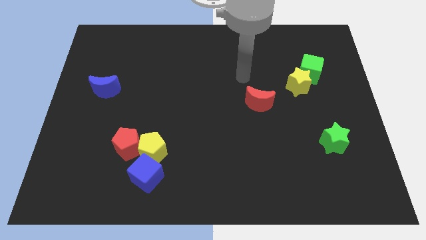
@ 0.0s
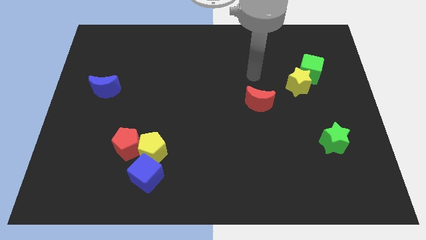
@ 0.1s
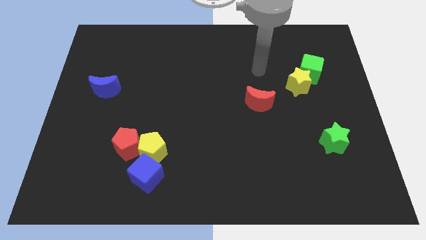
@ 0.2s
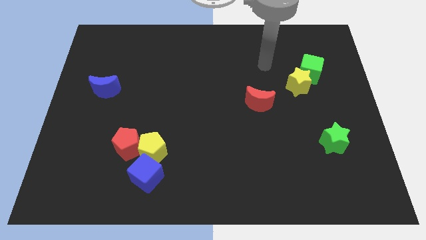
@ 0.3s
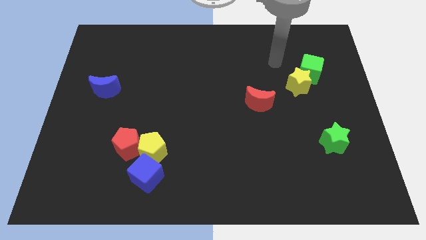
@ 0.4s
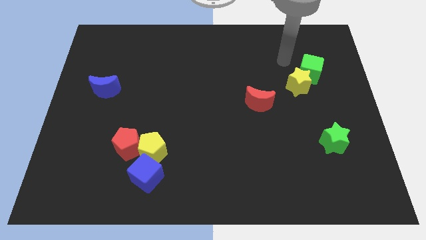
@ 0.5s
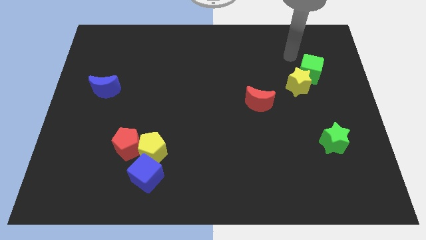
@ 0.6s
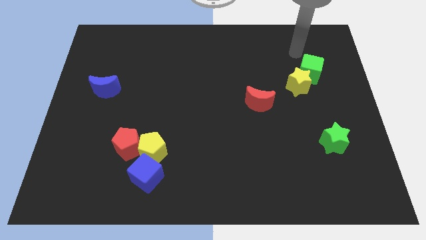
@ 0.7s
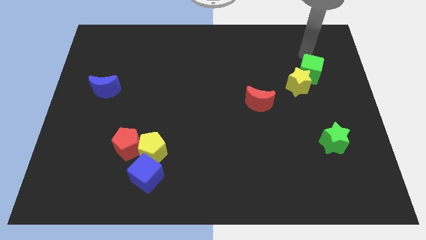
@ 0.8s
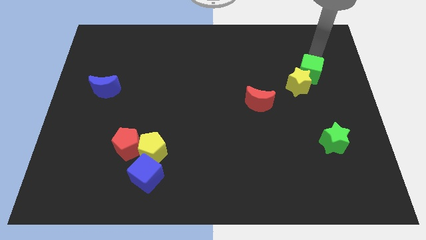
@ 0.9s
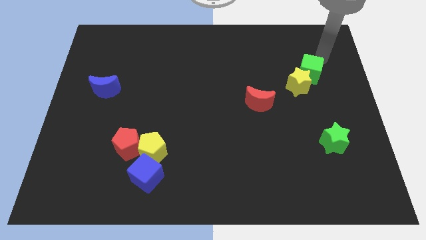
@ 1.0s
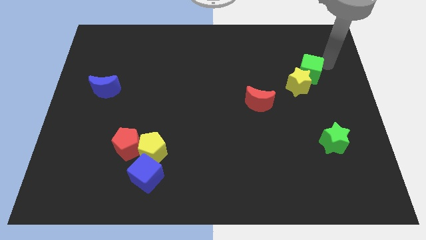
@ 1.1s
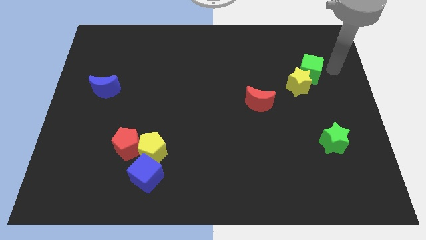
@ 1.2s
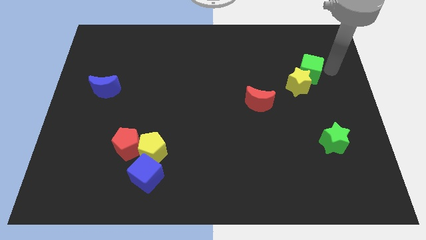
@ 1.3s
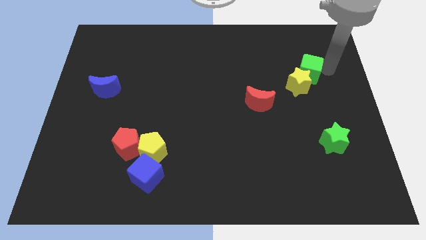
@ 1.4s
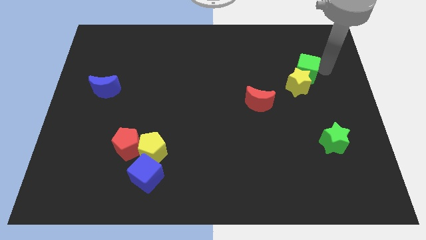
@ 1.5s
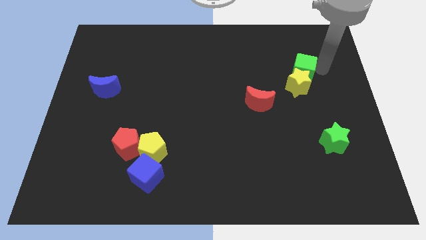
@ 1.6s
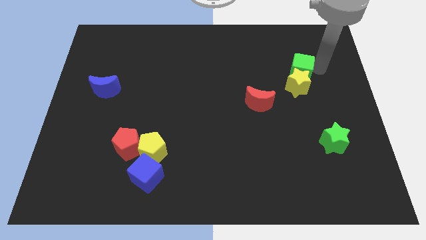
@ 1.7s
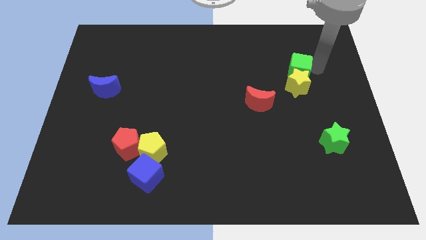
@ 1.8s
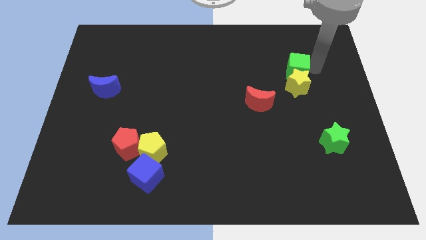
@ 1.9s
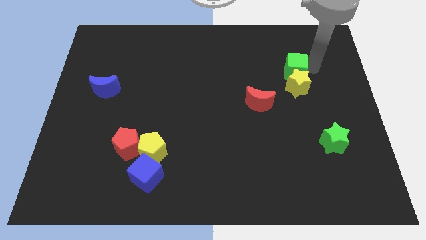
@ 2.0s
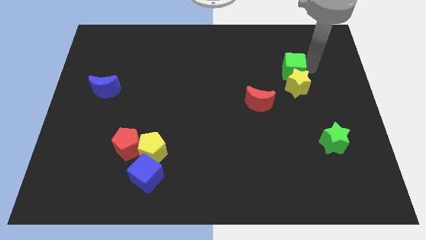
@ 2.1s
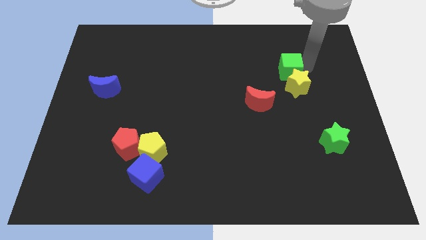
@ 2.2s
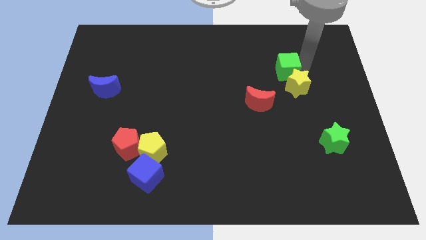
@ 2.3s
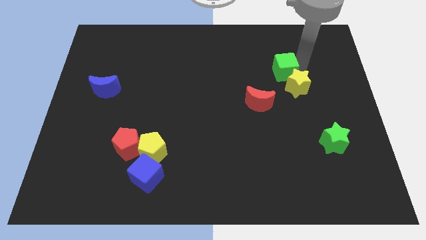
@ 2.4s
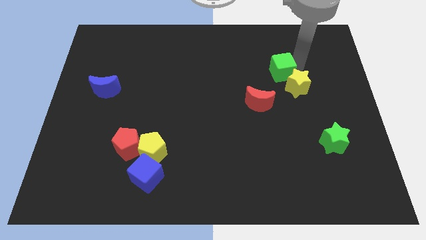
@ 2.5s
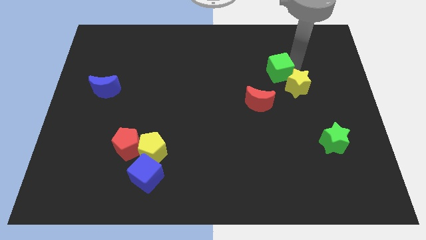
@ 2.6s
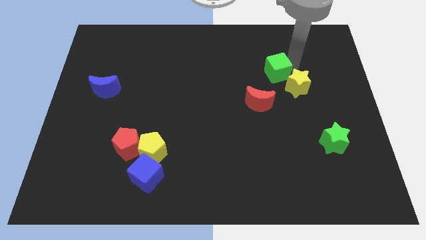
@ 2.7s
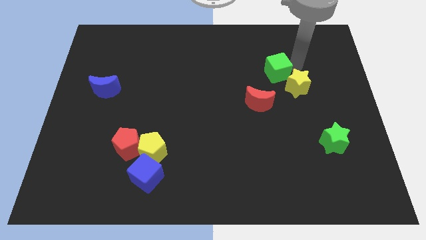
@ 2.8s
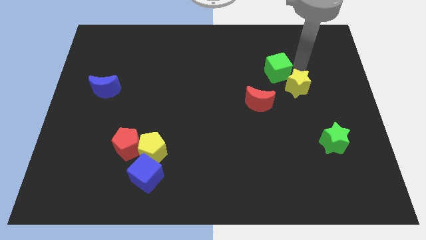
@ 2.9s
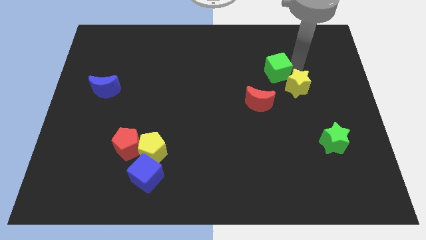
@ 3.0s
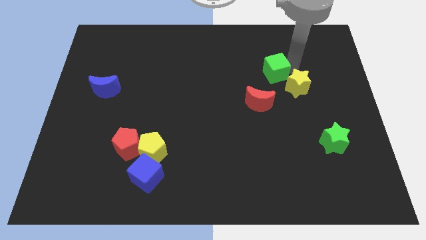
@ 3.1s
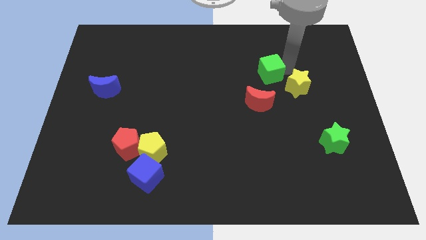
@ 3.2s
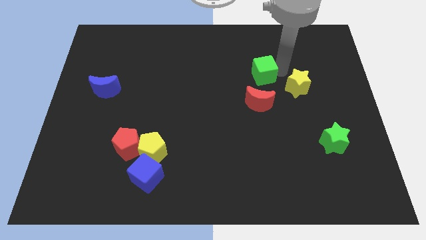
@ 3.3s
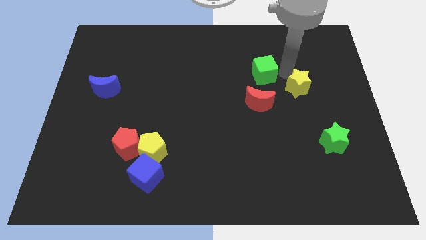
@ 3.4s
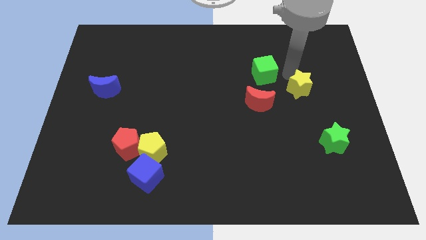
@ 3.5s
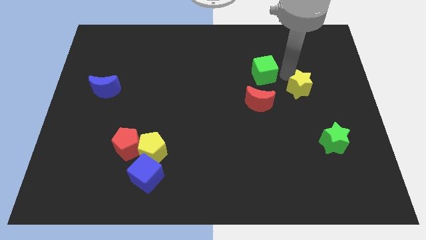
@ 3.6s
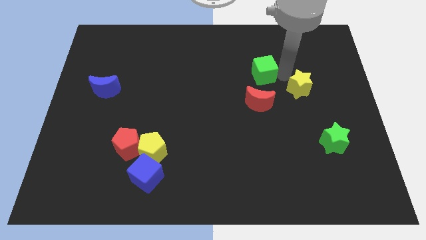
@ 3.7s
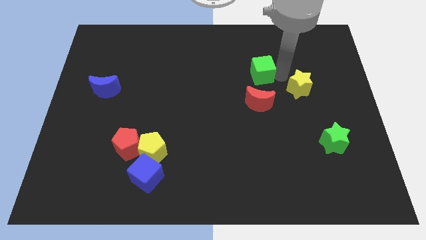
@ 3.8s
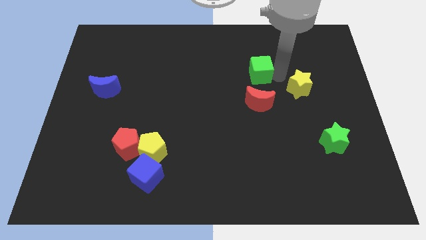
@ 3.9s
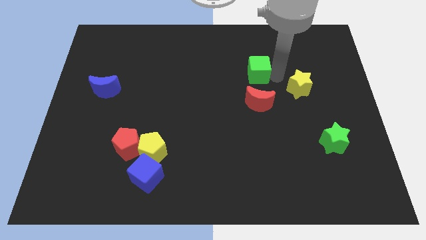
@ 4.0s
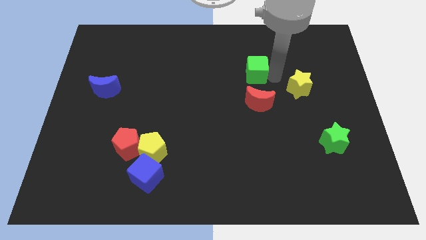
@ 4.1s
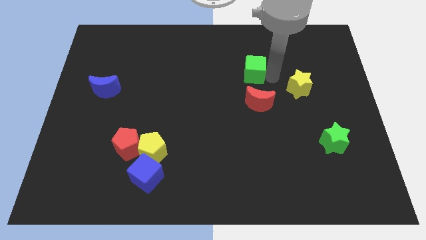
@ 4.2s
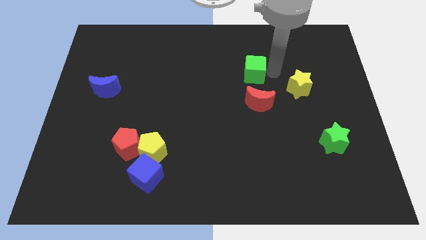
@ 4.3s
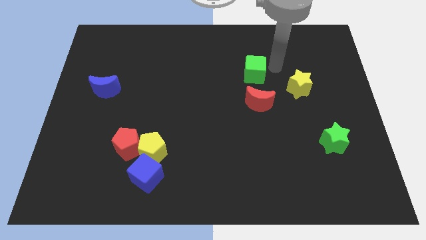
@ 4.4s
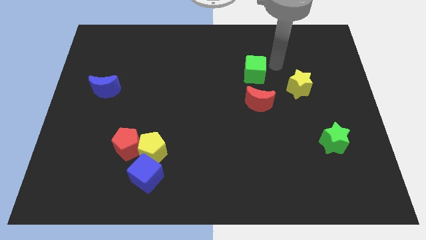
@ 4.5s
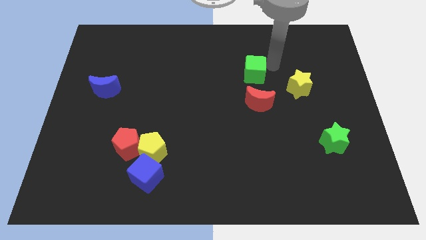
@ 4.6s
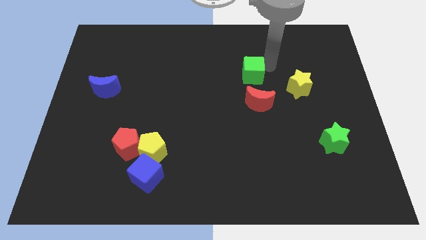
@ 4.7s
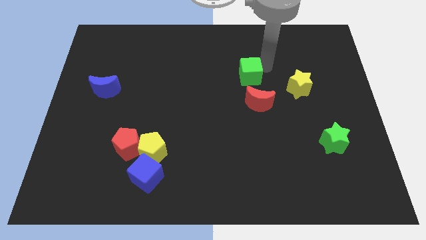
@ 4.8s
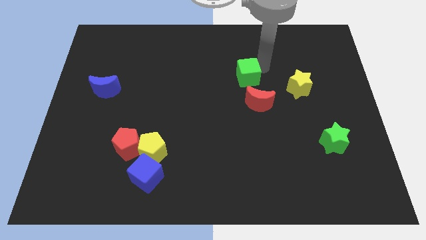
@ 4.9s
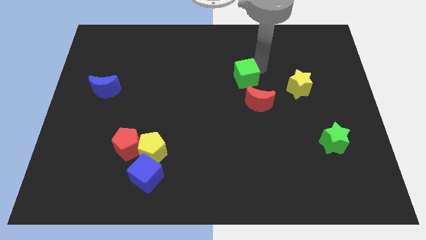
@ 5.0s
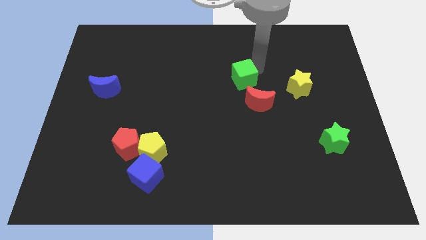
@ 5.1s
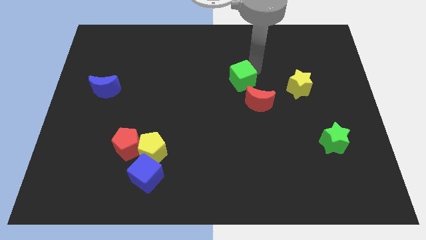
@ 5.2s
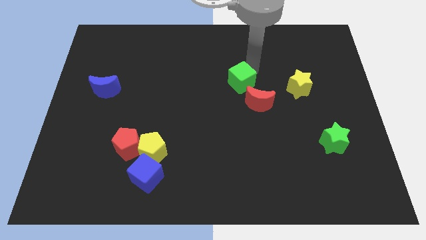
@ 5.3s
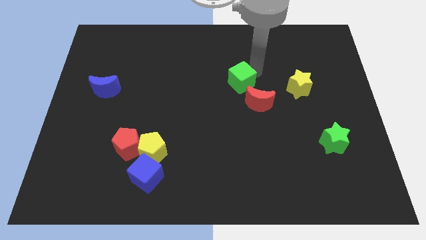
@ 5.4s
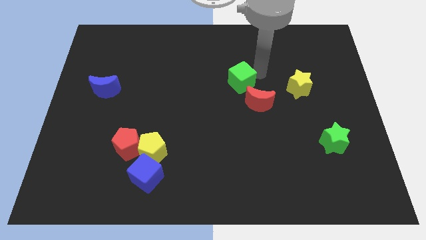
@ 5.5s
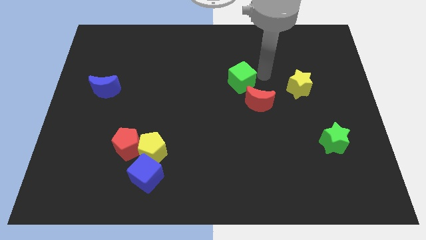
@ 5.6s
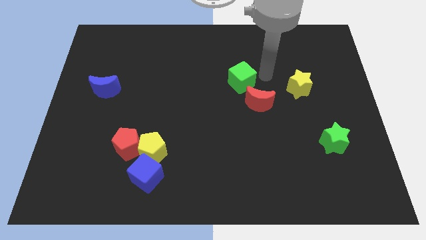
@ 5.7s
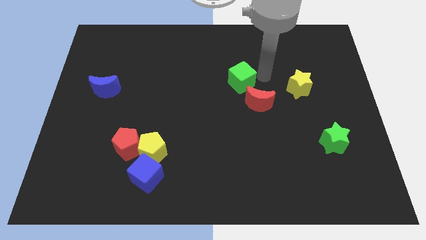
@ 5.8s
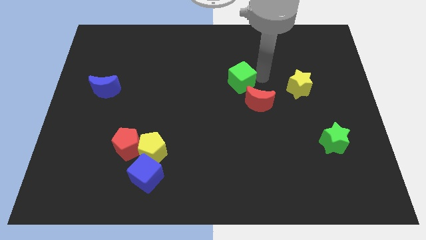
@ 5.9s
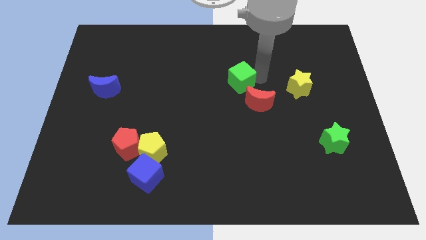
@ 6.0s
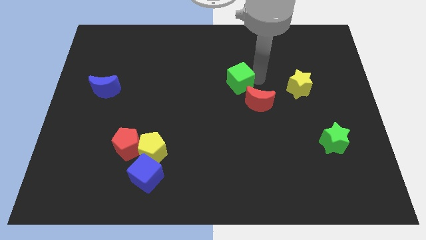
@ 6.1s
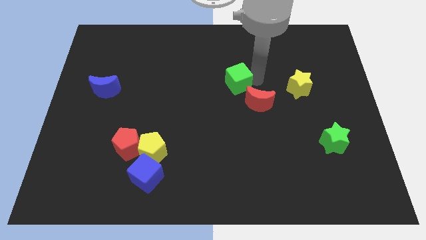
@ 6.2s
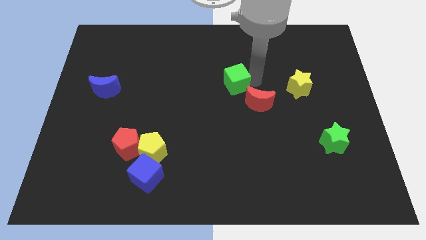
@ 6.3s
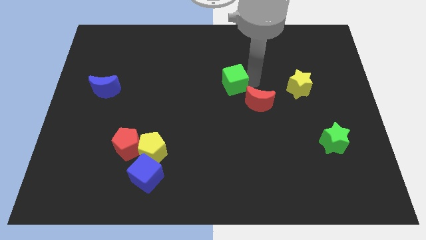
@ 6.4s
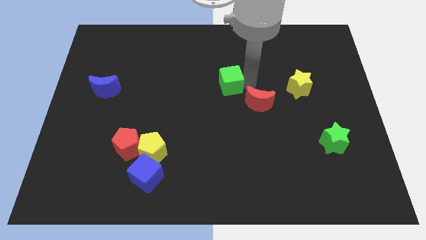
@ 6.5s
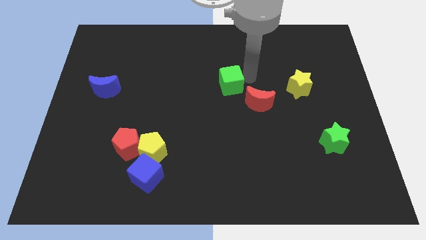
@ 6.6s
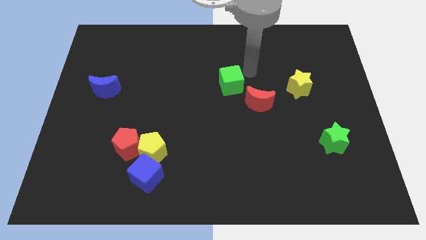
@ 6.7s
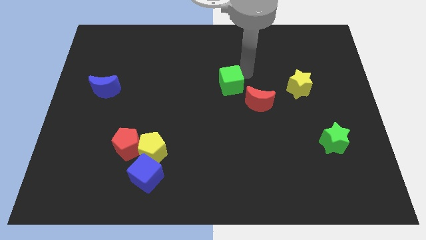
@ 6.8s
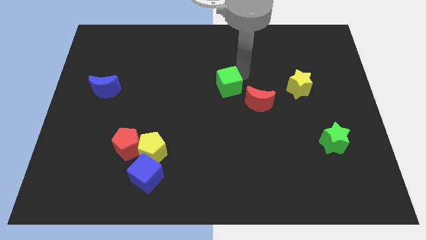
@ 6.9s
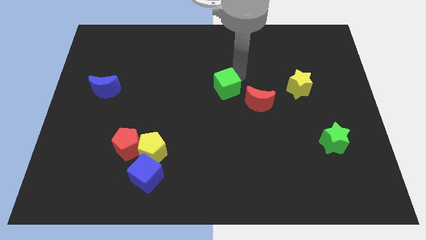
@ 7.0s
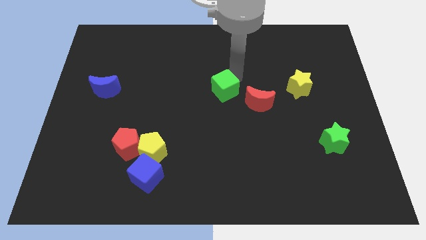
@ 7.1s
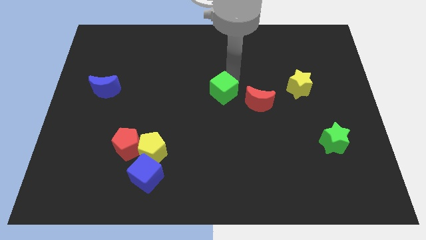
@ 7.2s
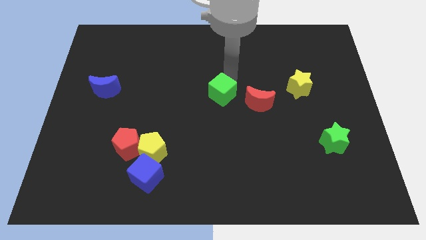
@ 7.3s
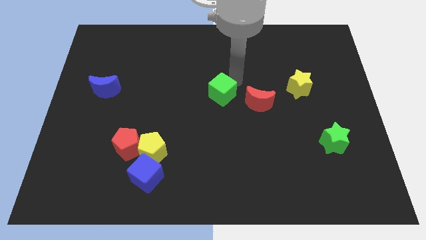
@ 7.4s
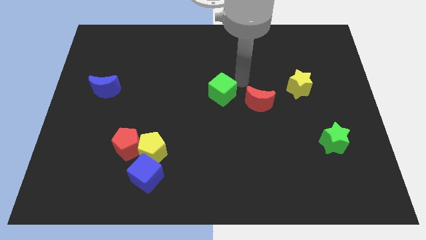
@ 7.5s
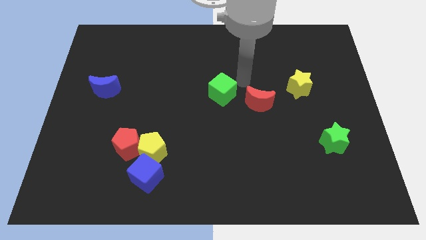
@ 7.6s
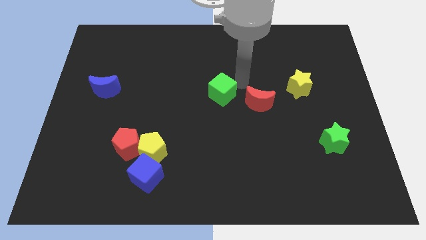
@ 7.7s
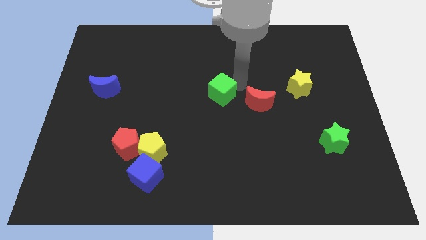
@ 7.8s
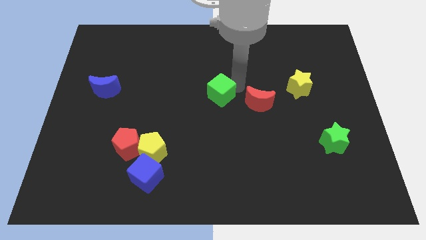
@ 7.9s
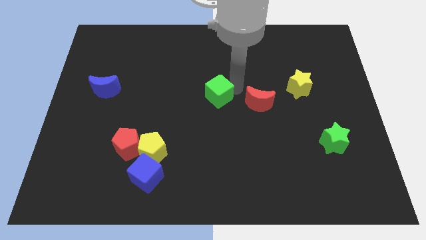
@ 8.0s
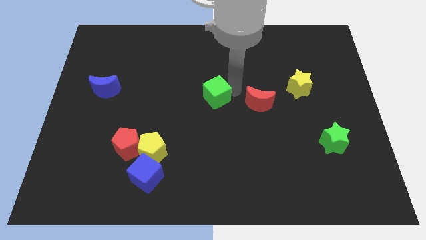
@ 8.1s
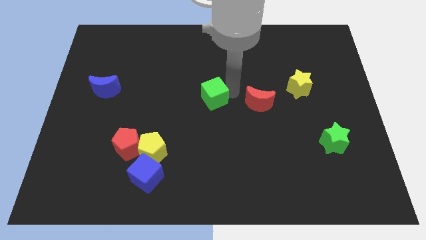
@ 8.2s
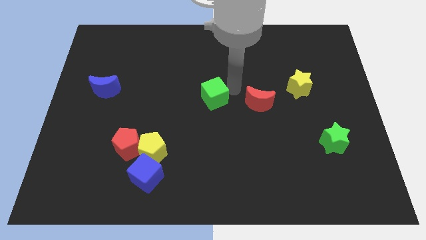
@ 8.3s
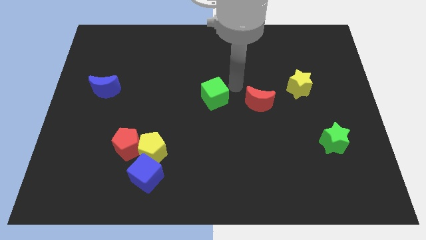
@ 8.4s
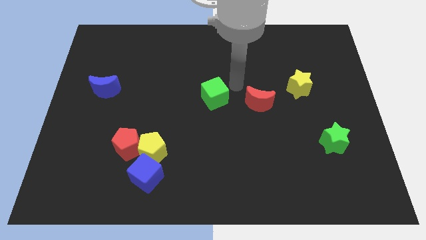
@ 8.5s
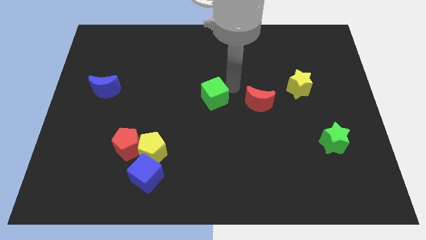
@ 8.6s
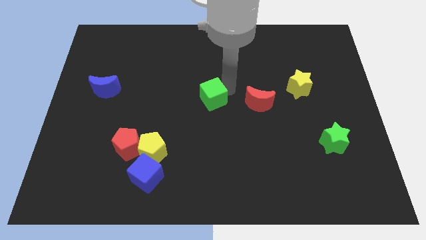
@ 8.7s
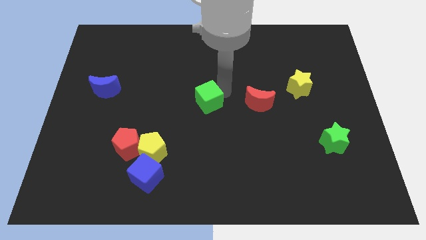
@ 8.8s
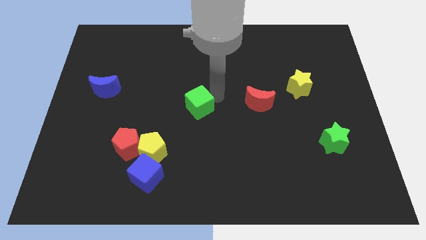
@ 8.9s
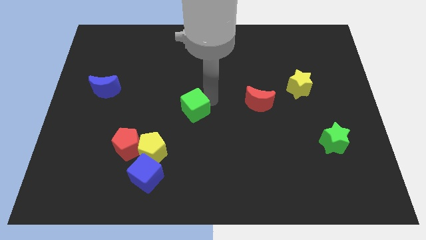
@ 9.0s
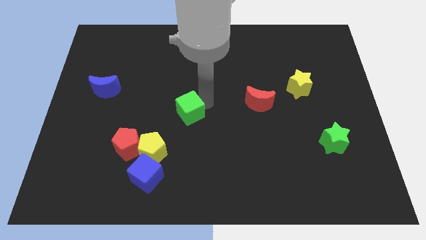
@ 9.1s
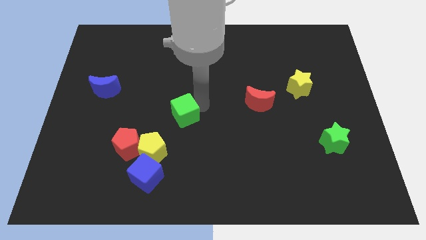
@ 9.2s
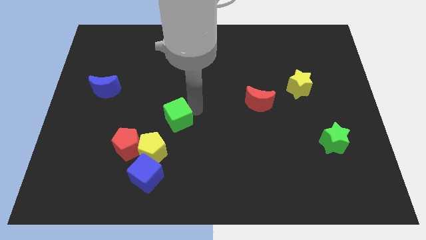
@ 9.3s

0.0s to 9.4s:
push the green cube to the top right side of the red pentagon
